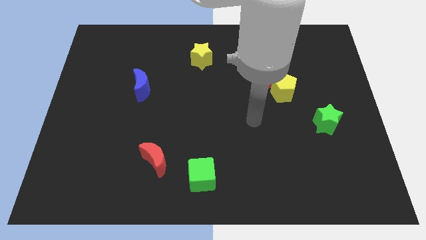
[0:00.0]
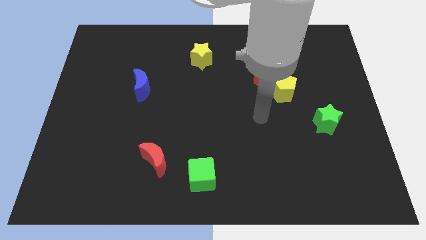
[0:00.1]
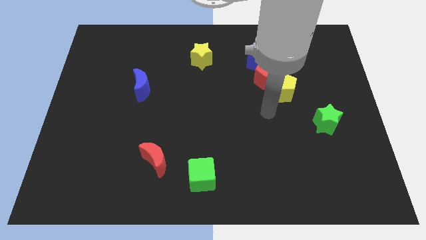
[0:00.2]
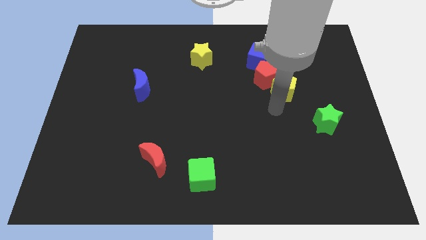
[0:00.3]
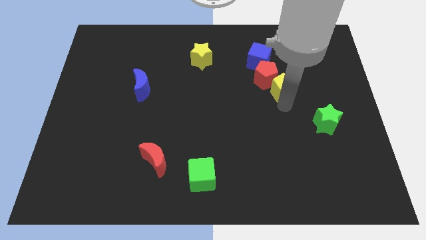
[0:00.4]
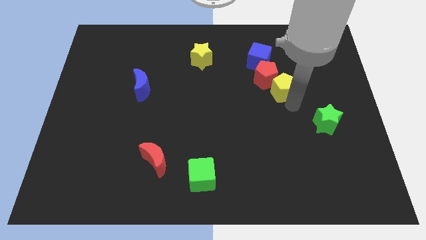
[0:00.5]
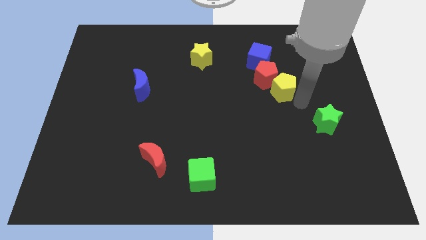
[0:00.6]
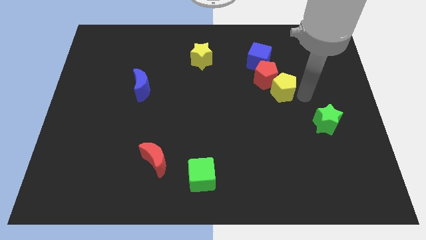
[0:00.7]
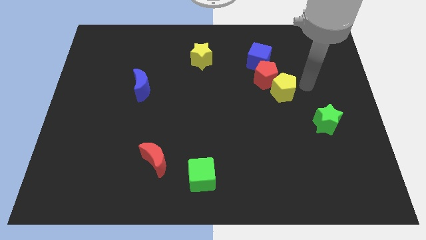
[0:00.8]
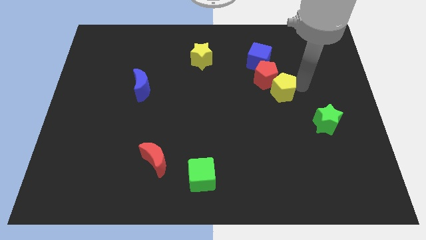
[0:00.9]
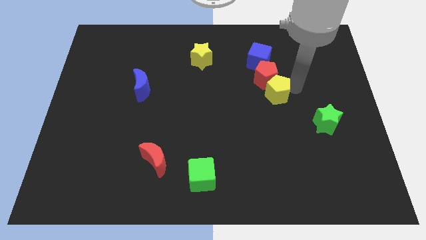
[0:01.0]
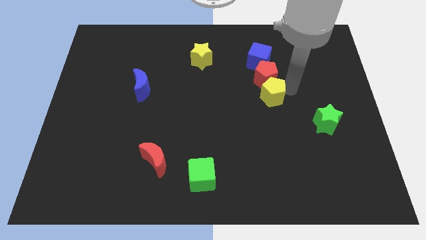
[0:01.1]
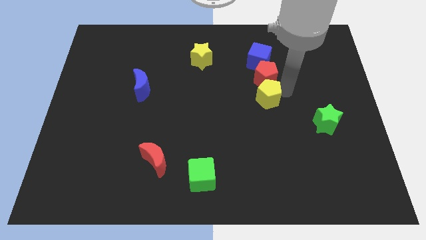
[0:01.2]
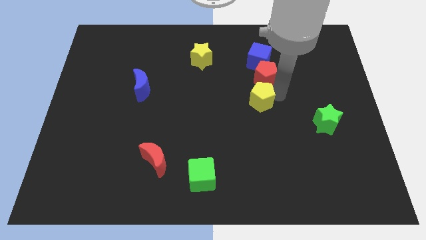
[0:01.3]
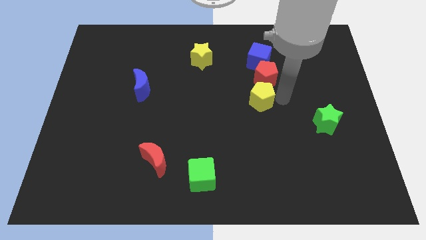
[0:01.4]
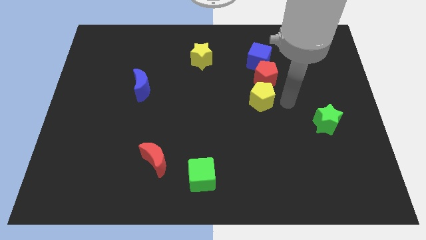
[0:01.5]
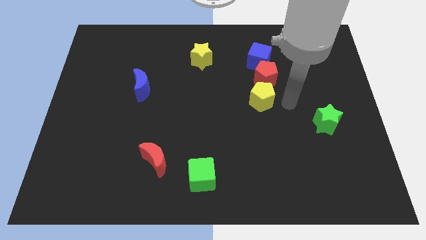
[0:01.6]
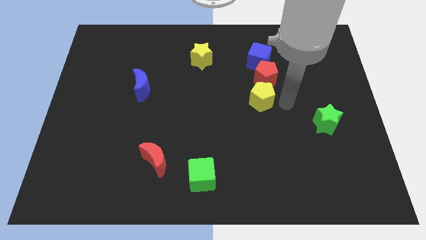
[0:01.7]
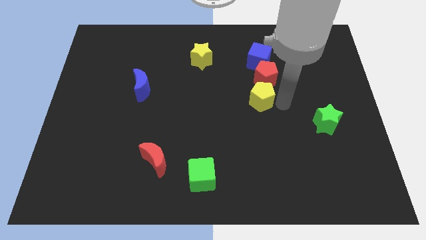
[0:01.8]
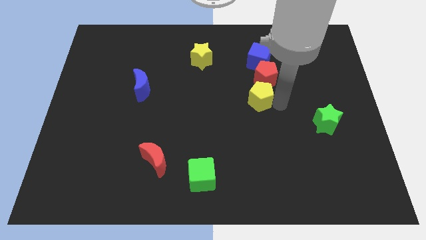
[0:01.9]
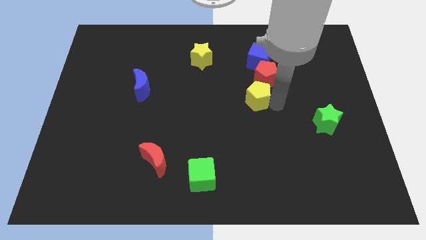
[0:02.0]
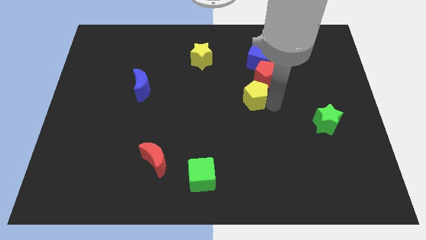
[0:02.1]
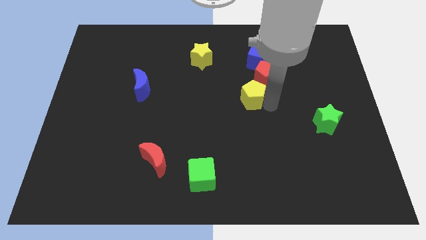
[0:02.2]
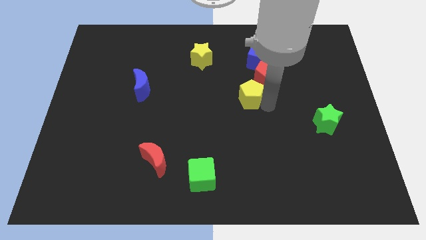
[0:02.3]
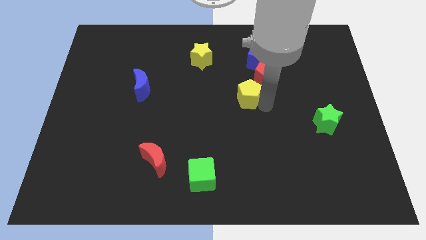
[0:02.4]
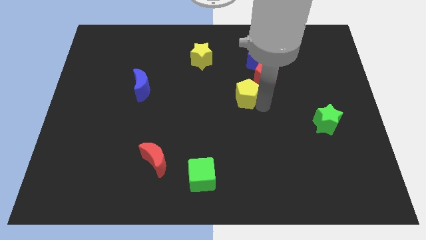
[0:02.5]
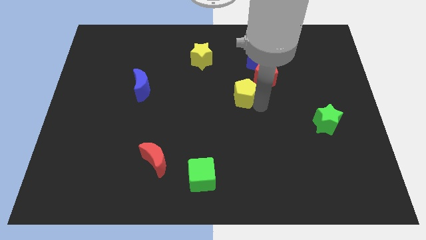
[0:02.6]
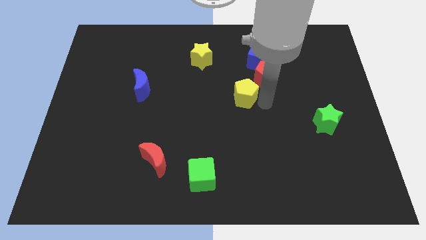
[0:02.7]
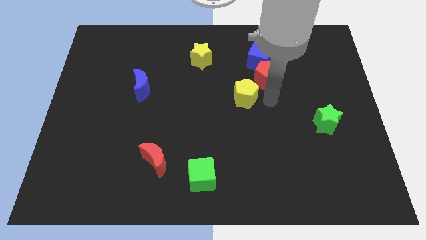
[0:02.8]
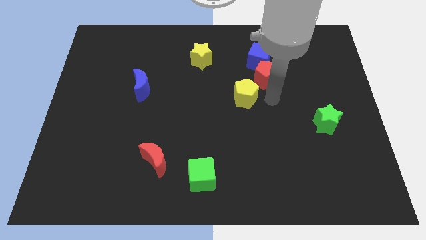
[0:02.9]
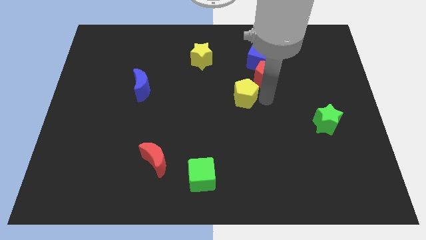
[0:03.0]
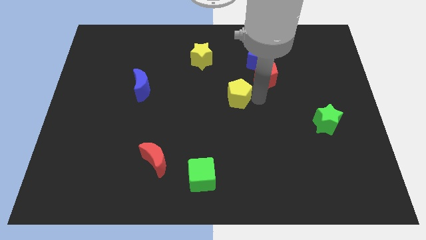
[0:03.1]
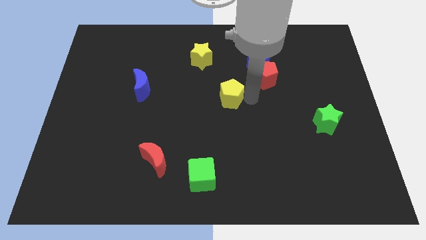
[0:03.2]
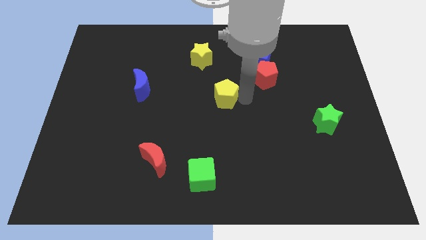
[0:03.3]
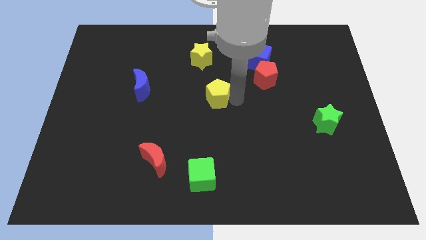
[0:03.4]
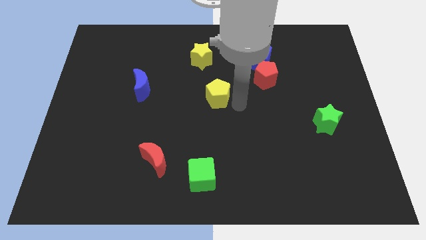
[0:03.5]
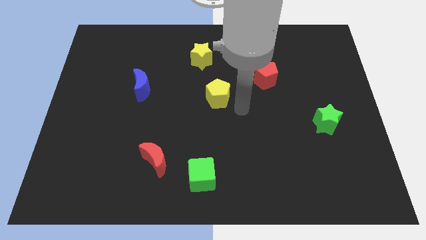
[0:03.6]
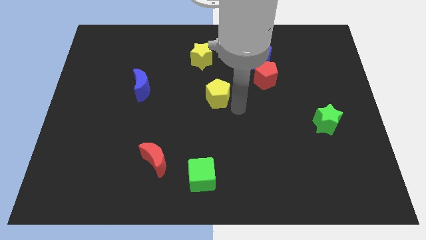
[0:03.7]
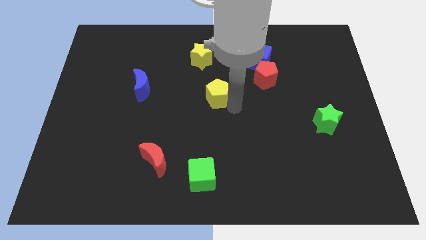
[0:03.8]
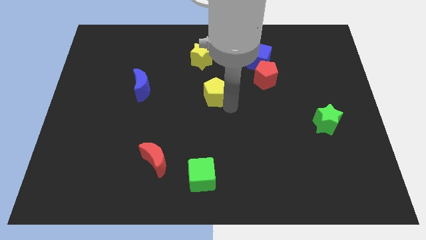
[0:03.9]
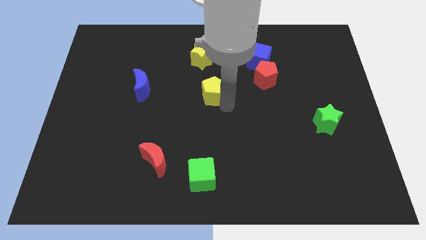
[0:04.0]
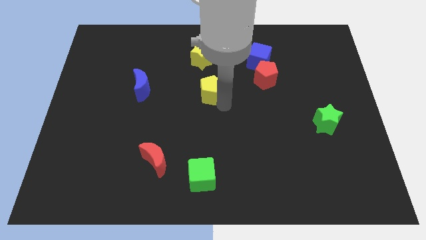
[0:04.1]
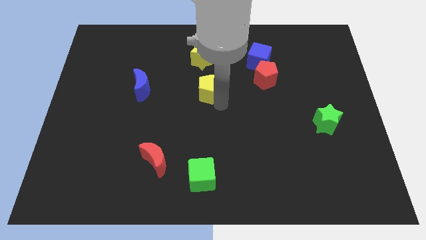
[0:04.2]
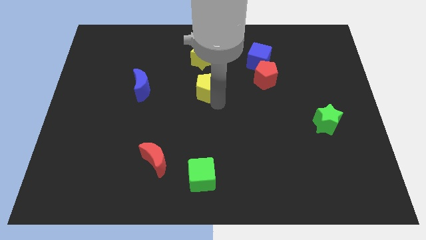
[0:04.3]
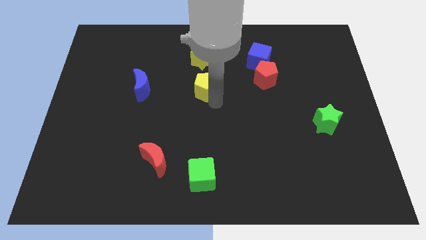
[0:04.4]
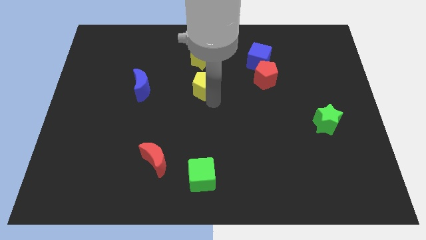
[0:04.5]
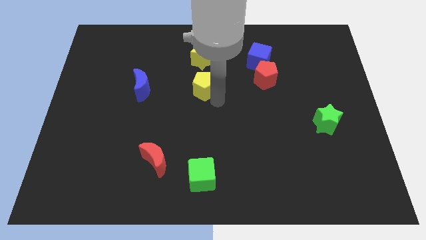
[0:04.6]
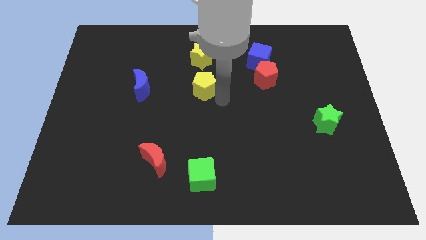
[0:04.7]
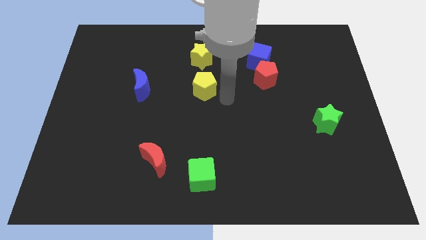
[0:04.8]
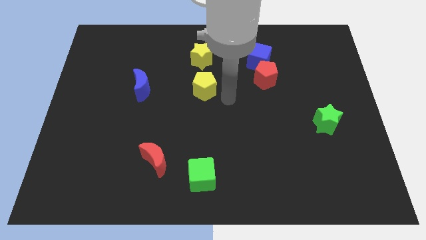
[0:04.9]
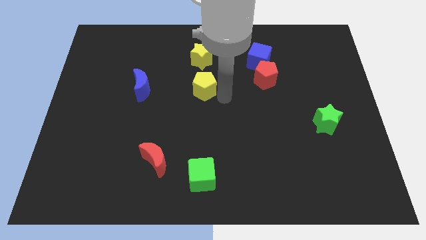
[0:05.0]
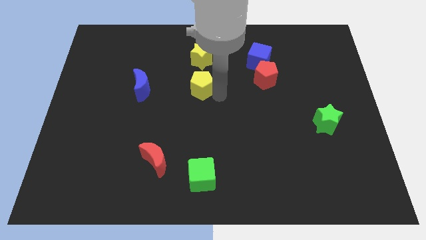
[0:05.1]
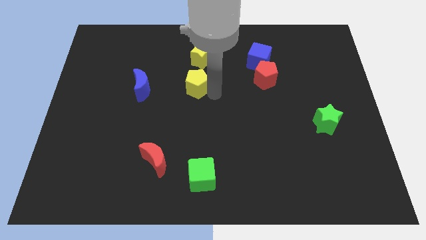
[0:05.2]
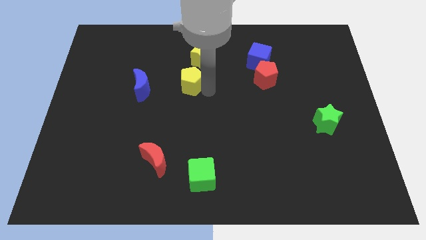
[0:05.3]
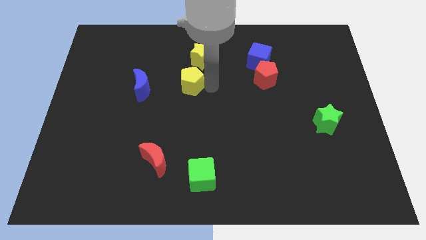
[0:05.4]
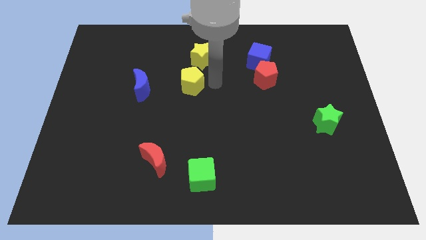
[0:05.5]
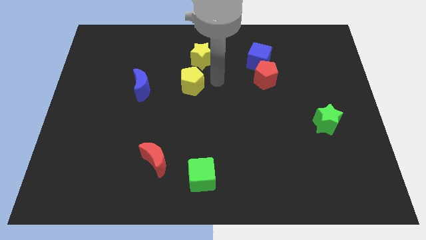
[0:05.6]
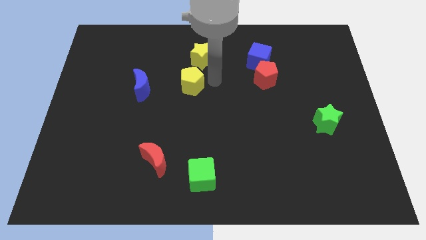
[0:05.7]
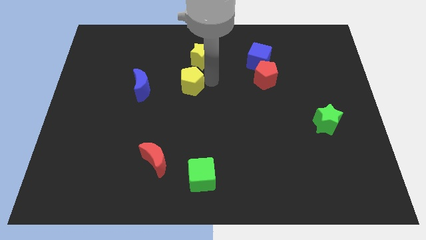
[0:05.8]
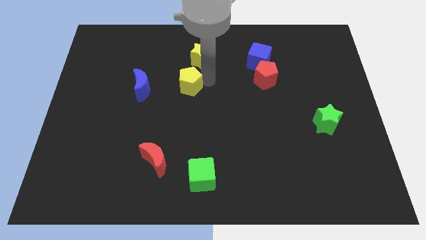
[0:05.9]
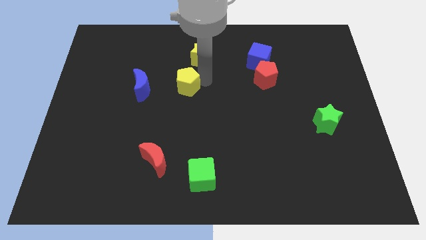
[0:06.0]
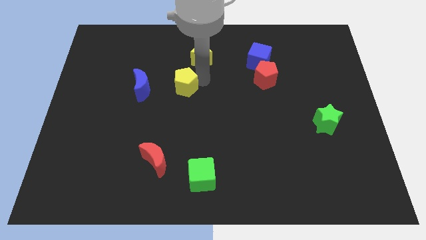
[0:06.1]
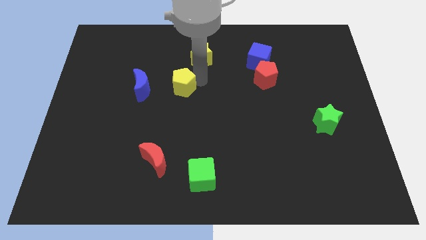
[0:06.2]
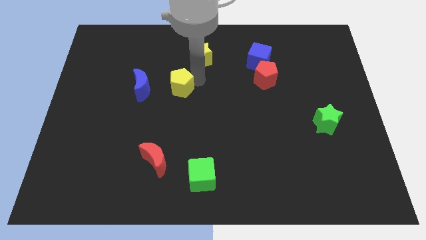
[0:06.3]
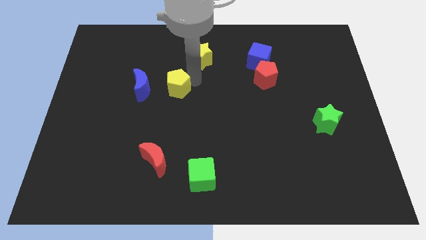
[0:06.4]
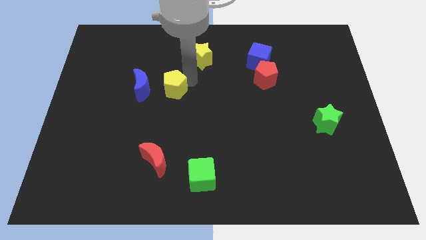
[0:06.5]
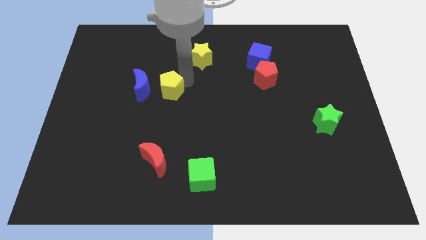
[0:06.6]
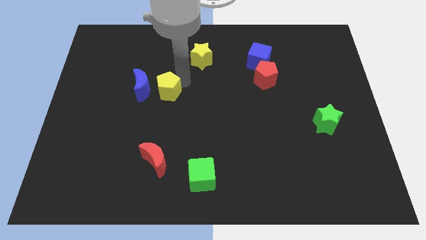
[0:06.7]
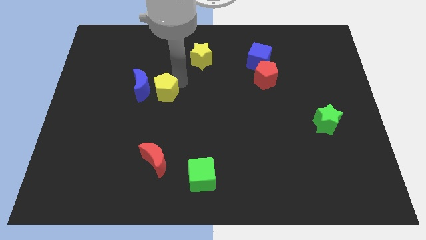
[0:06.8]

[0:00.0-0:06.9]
push the yellow pentagon towards the blue moon
